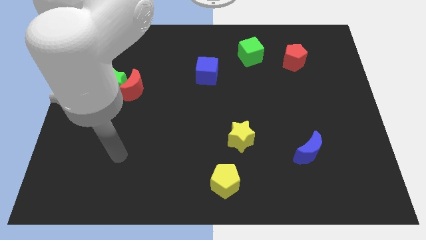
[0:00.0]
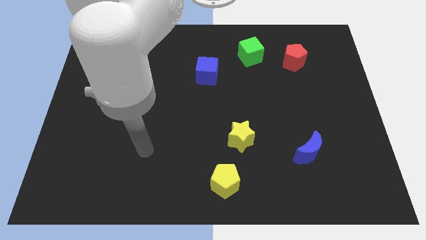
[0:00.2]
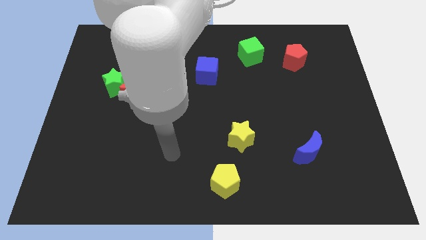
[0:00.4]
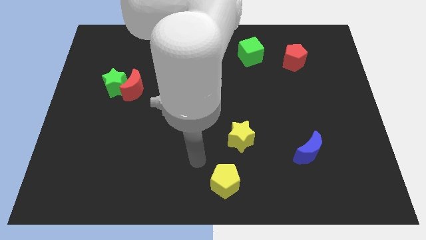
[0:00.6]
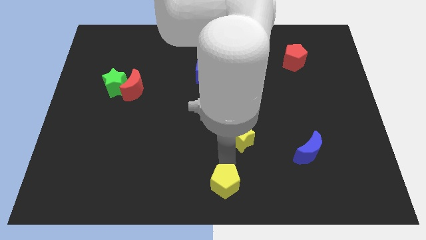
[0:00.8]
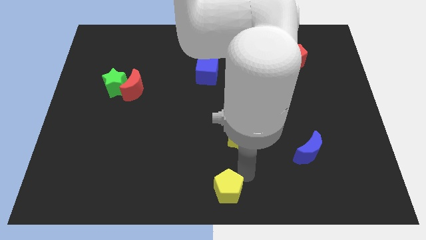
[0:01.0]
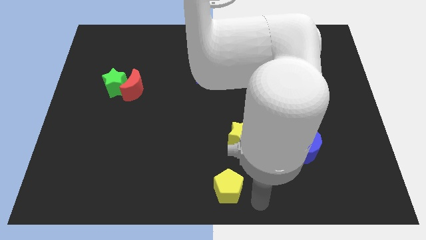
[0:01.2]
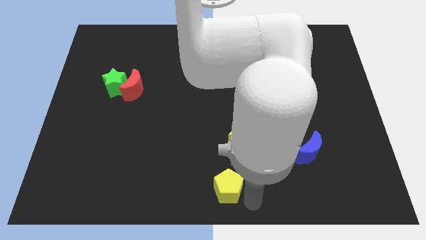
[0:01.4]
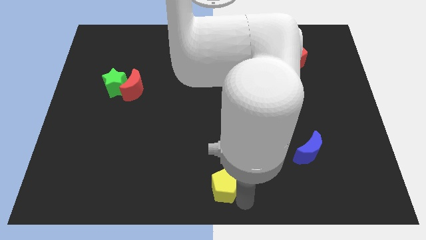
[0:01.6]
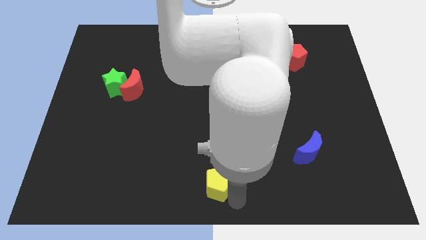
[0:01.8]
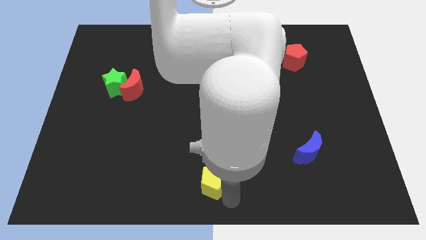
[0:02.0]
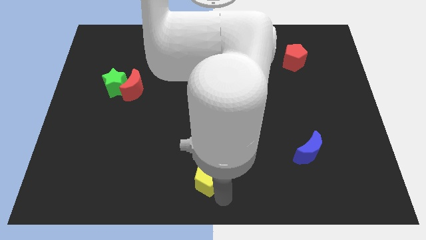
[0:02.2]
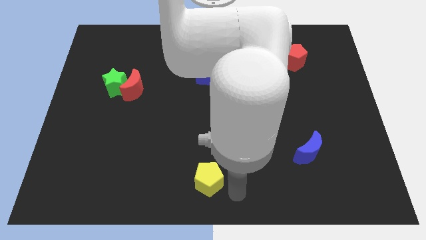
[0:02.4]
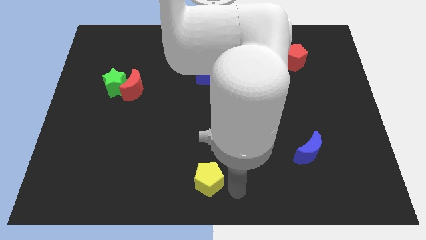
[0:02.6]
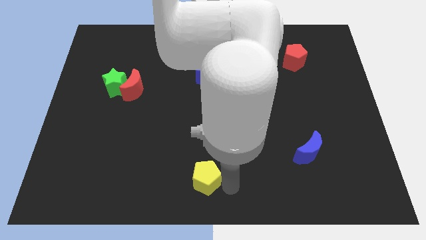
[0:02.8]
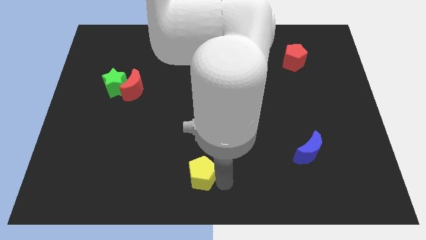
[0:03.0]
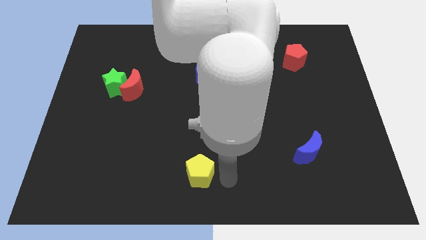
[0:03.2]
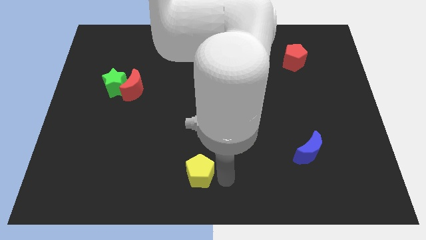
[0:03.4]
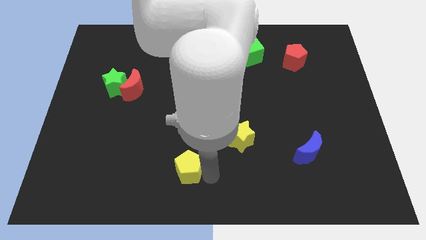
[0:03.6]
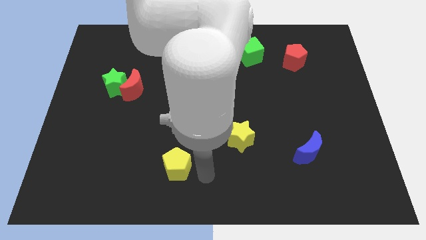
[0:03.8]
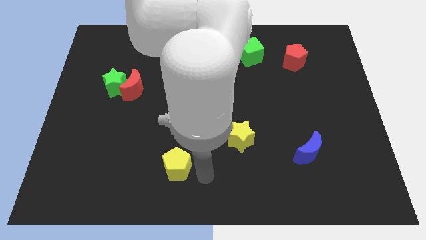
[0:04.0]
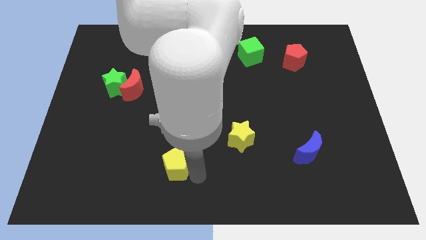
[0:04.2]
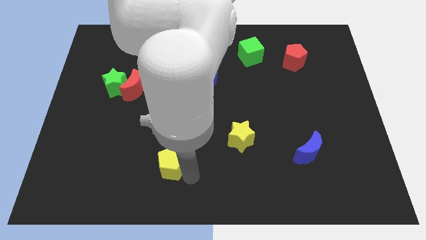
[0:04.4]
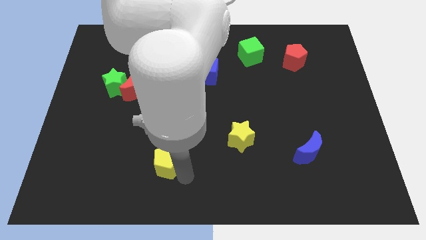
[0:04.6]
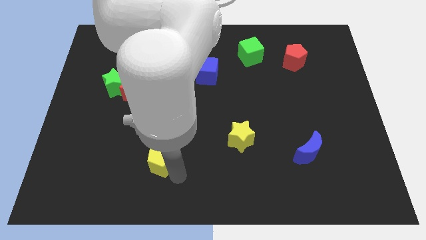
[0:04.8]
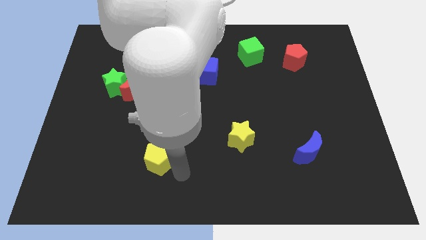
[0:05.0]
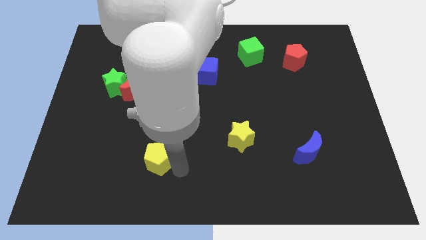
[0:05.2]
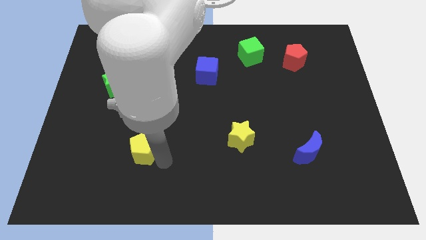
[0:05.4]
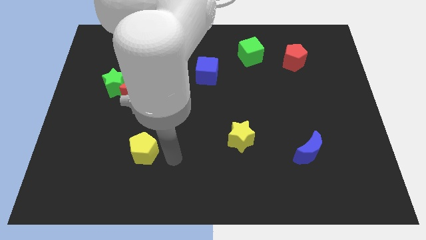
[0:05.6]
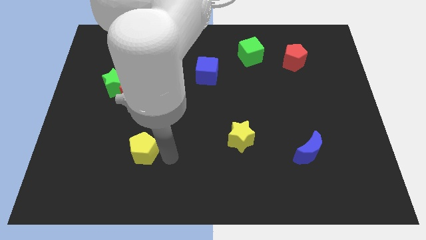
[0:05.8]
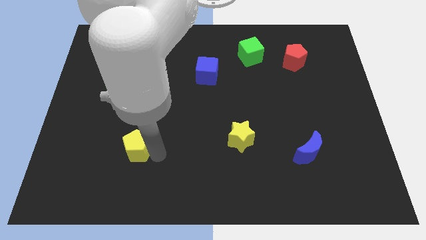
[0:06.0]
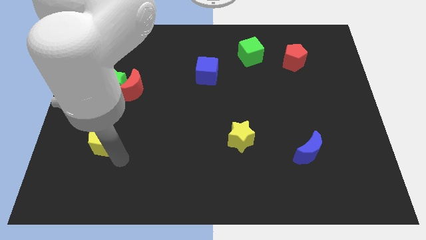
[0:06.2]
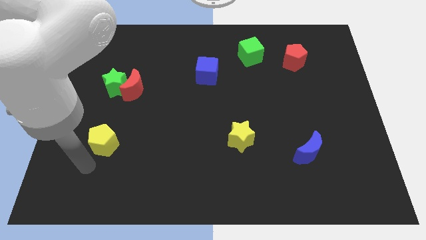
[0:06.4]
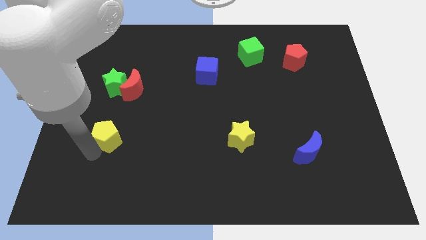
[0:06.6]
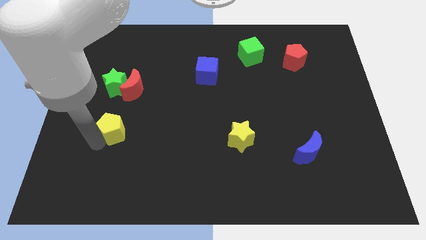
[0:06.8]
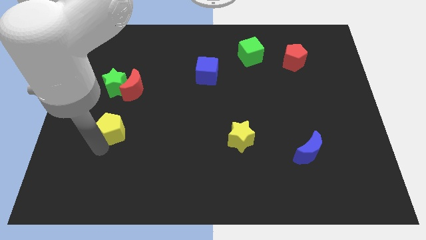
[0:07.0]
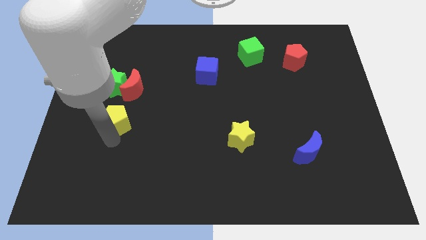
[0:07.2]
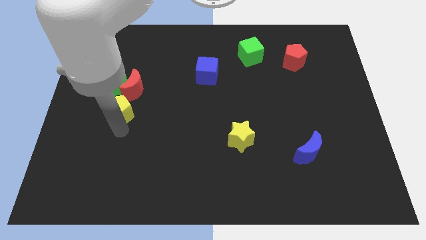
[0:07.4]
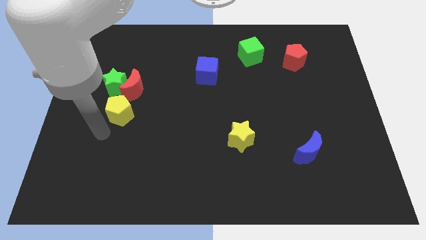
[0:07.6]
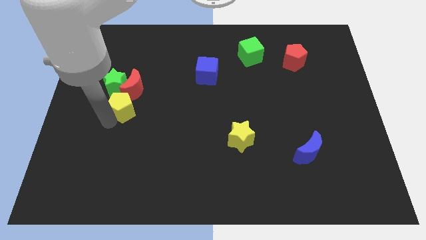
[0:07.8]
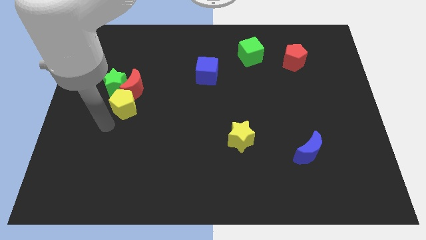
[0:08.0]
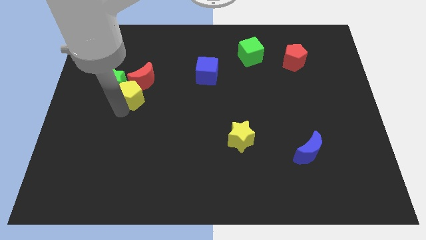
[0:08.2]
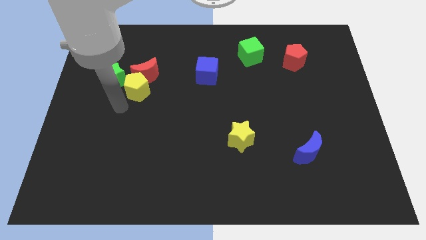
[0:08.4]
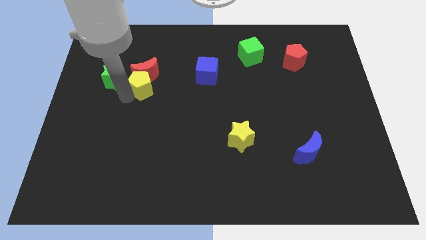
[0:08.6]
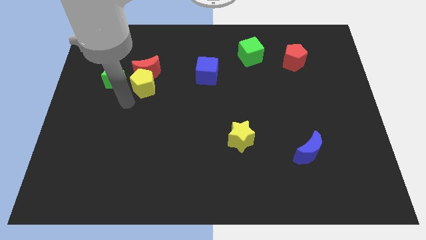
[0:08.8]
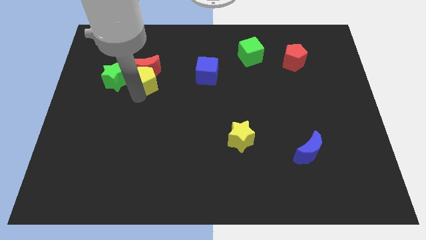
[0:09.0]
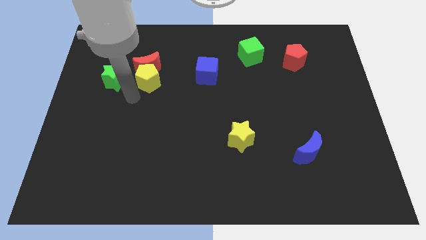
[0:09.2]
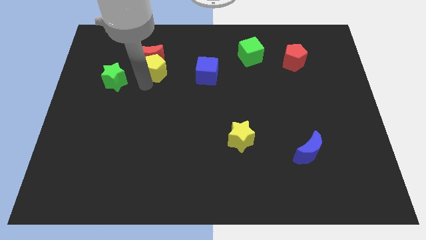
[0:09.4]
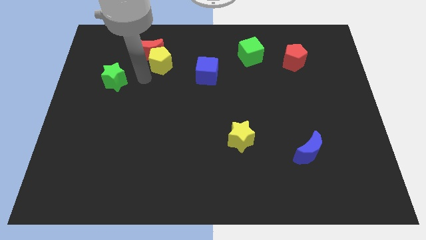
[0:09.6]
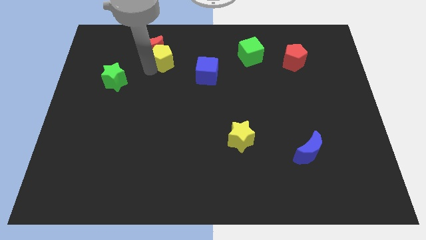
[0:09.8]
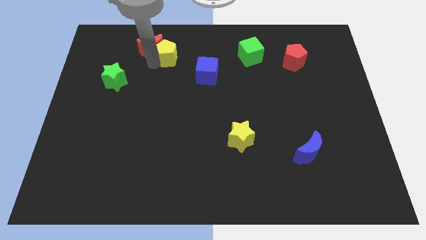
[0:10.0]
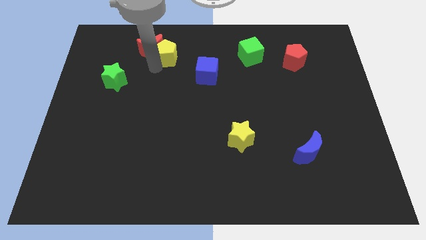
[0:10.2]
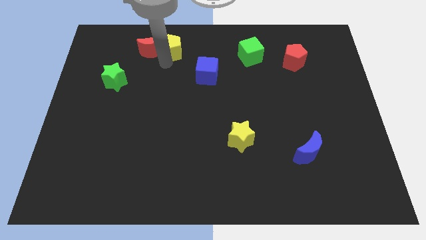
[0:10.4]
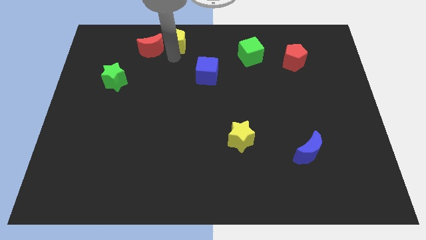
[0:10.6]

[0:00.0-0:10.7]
move the yellow pentagon to the top side

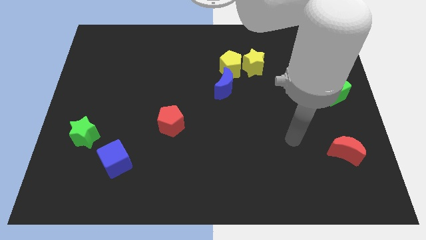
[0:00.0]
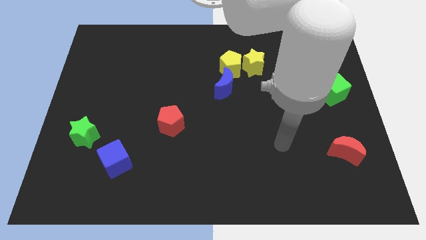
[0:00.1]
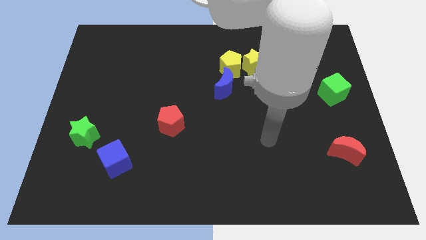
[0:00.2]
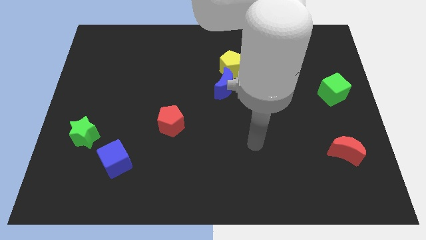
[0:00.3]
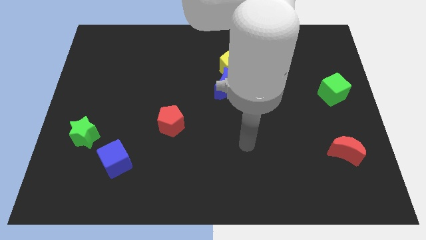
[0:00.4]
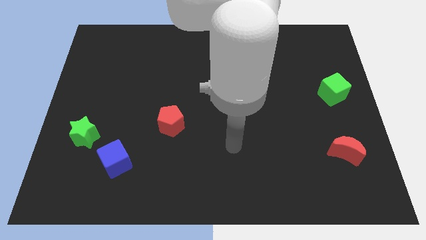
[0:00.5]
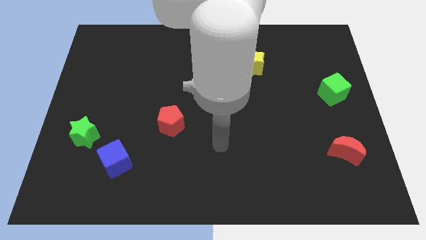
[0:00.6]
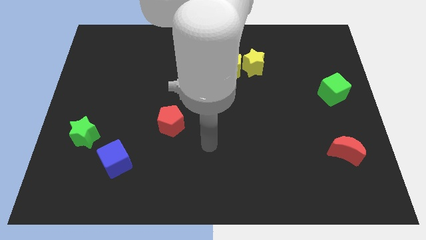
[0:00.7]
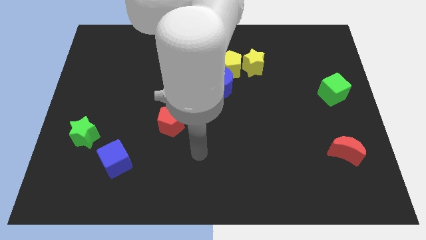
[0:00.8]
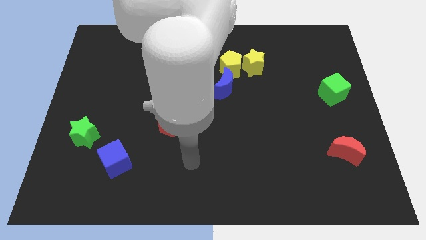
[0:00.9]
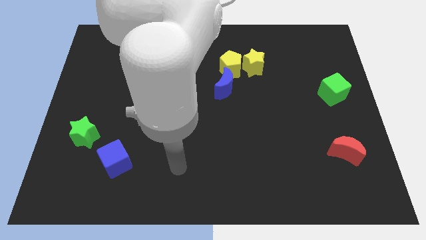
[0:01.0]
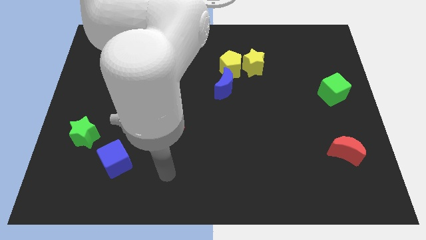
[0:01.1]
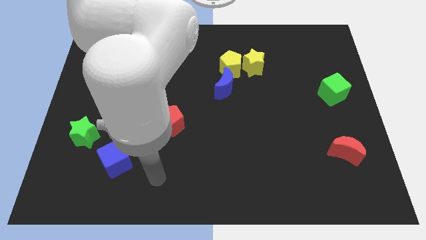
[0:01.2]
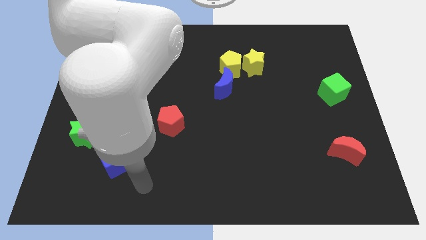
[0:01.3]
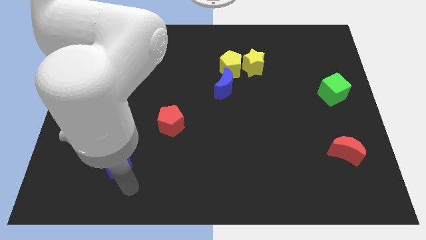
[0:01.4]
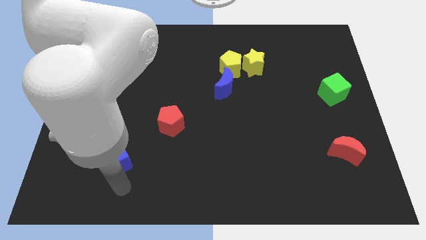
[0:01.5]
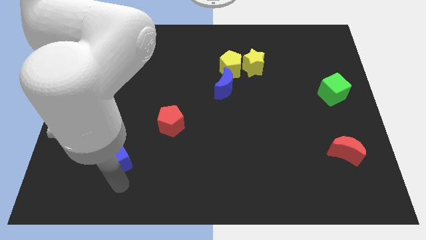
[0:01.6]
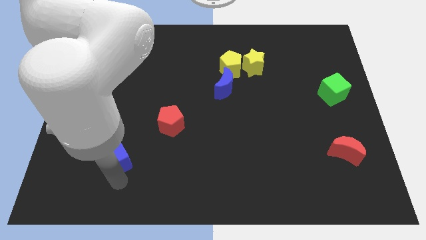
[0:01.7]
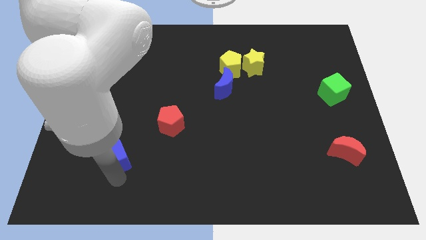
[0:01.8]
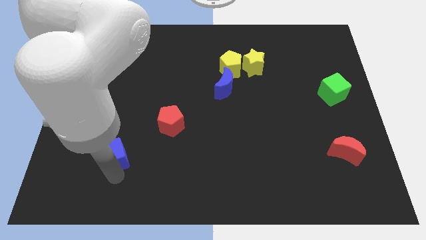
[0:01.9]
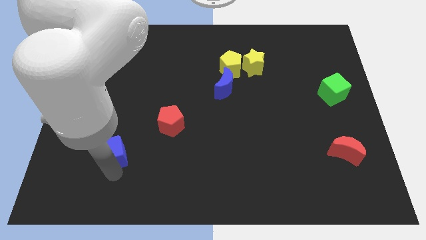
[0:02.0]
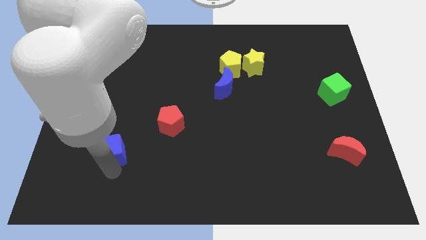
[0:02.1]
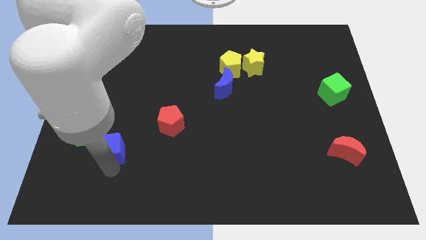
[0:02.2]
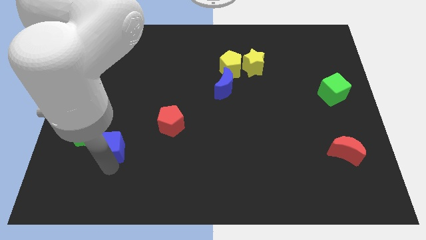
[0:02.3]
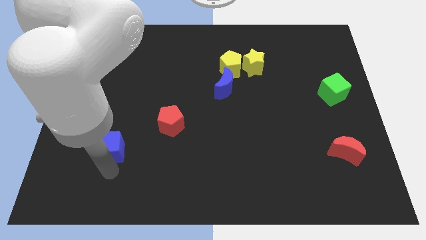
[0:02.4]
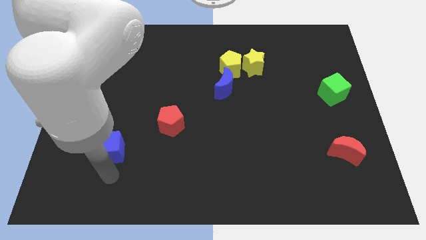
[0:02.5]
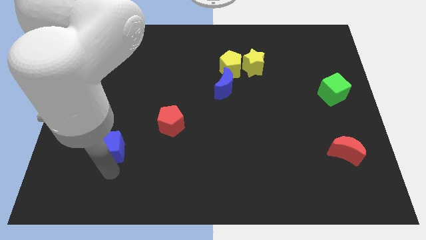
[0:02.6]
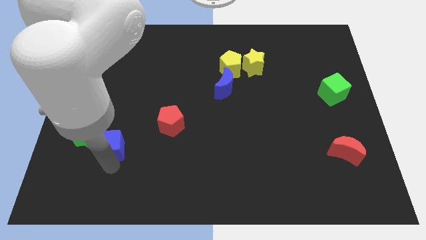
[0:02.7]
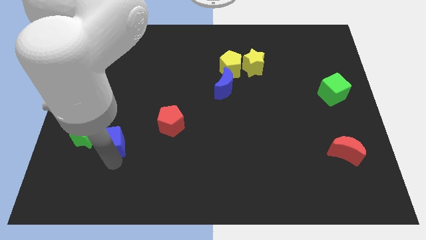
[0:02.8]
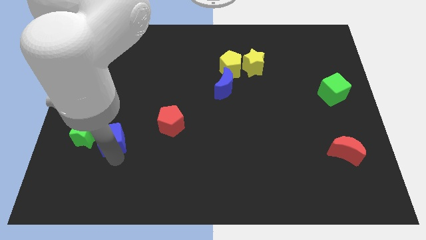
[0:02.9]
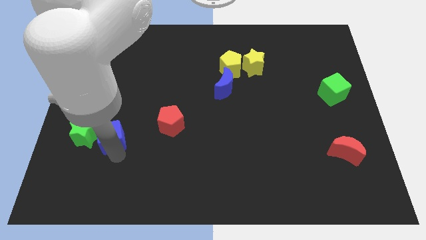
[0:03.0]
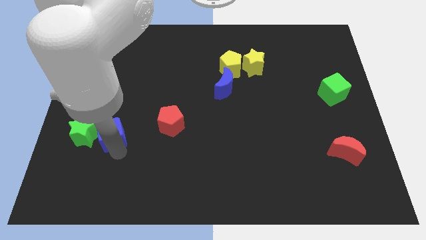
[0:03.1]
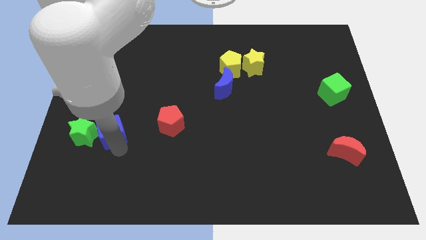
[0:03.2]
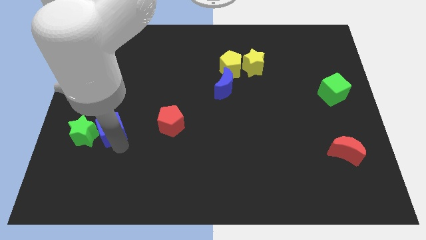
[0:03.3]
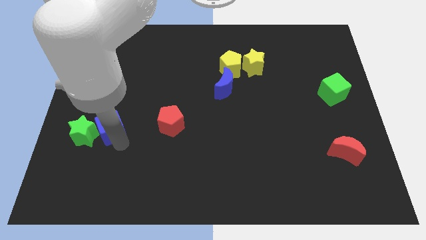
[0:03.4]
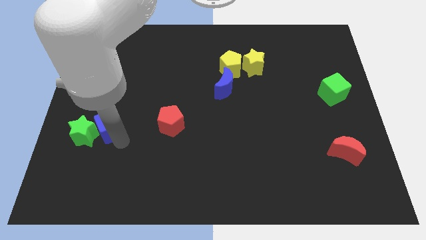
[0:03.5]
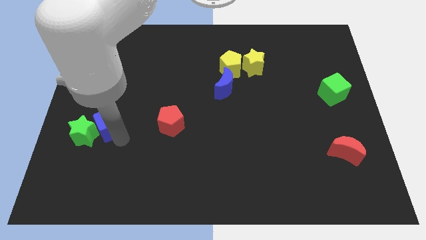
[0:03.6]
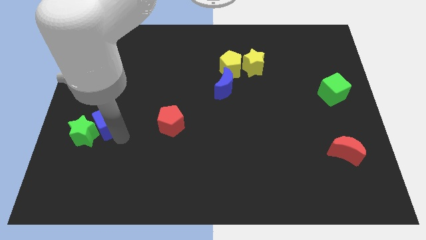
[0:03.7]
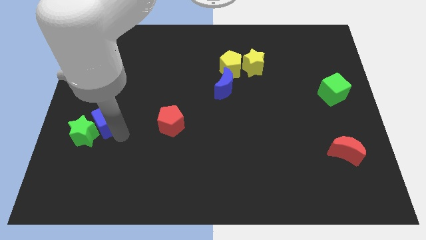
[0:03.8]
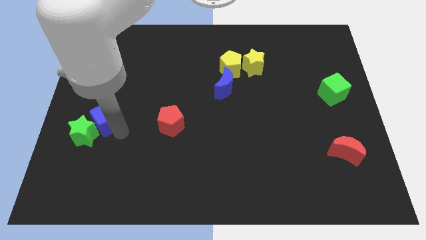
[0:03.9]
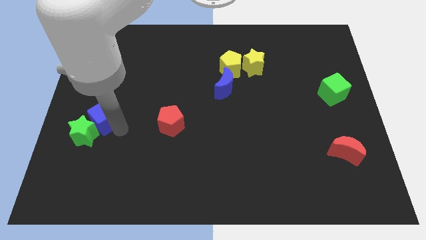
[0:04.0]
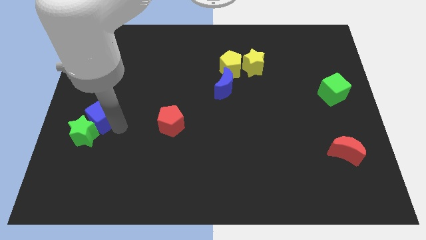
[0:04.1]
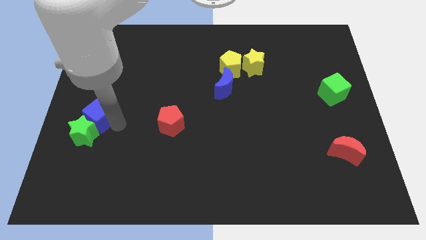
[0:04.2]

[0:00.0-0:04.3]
move the blue cube to the left side
